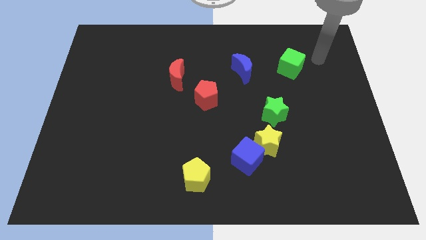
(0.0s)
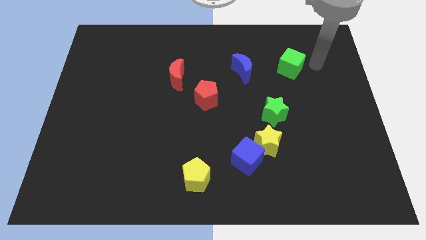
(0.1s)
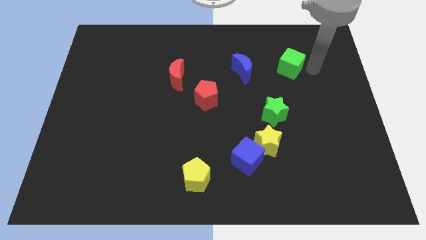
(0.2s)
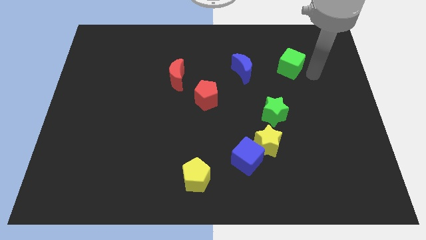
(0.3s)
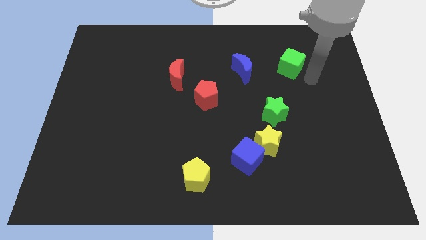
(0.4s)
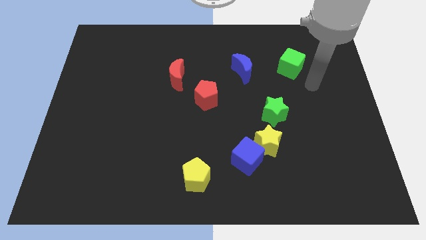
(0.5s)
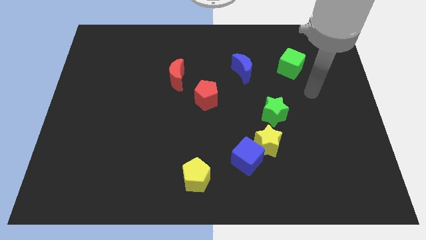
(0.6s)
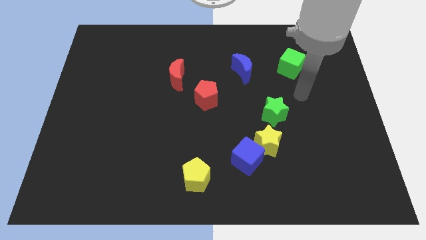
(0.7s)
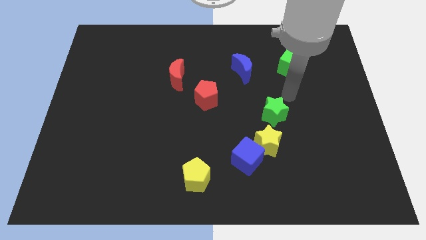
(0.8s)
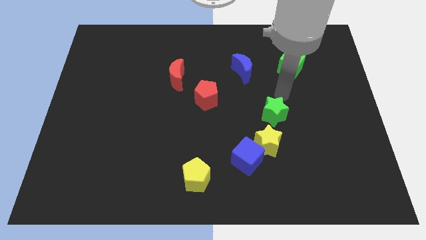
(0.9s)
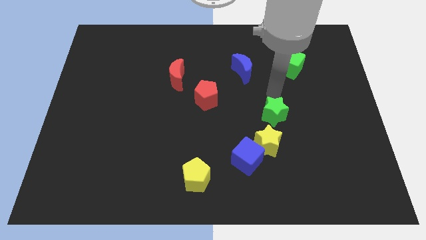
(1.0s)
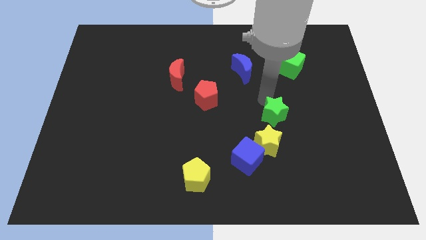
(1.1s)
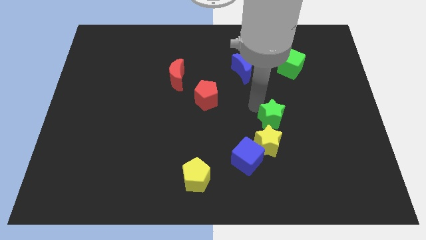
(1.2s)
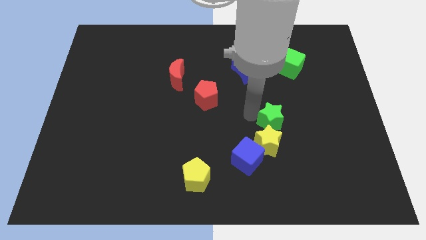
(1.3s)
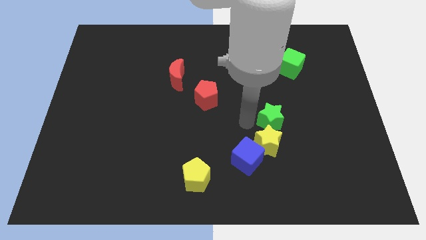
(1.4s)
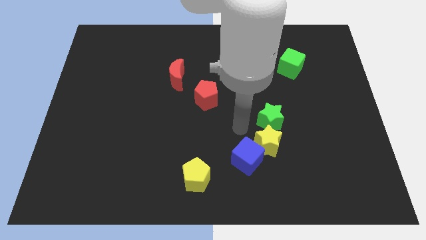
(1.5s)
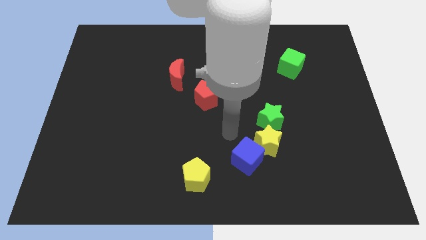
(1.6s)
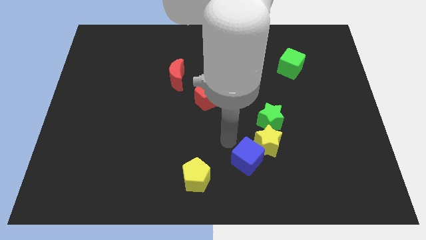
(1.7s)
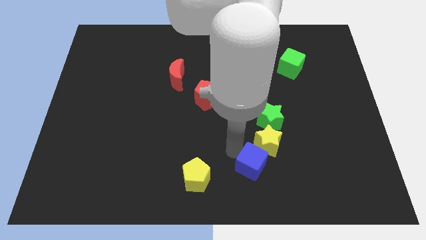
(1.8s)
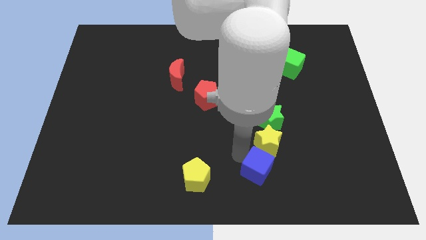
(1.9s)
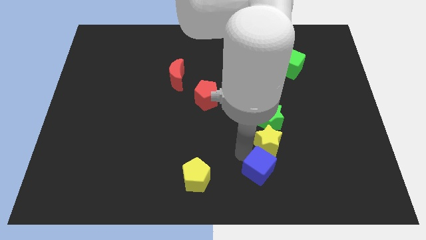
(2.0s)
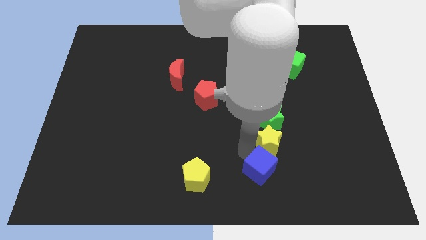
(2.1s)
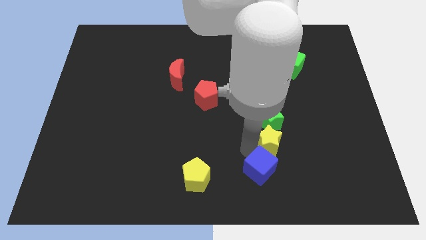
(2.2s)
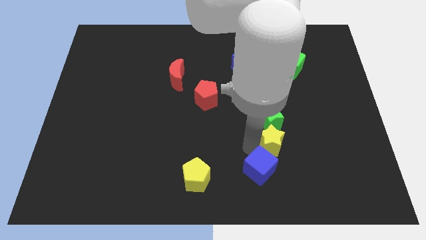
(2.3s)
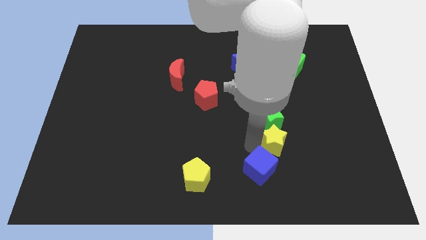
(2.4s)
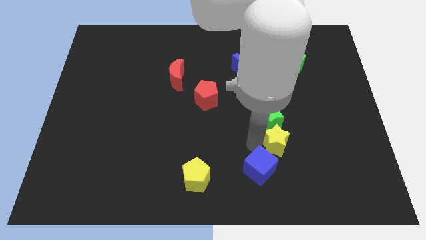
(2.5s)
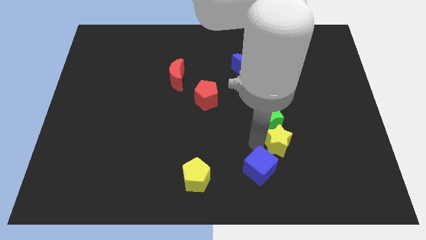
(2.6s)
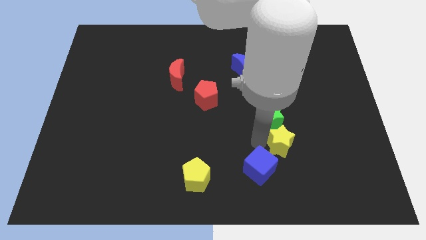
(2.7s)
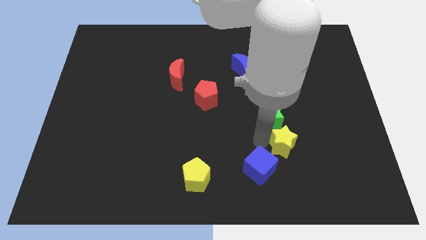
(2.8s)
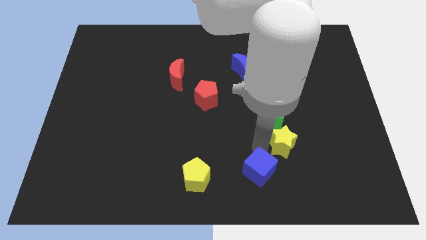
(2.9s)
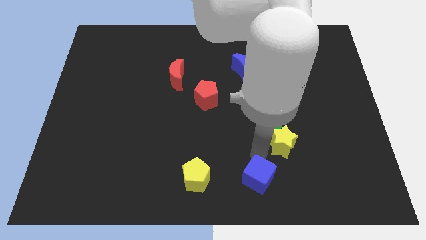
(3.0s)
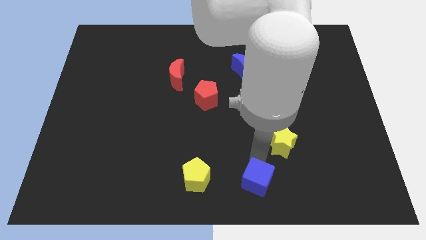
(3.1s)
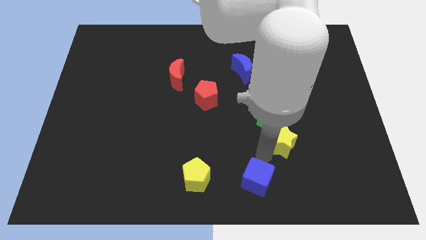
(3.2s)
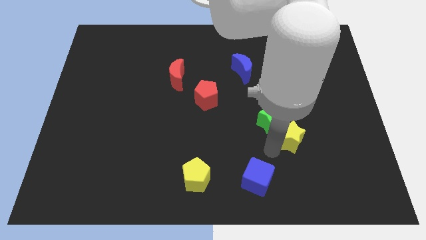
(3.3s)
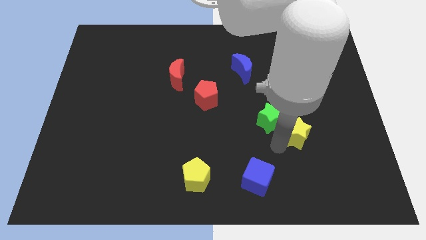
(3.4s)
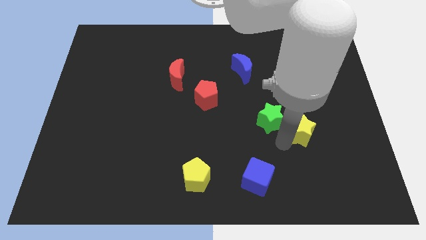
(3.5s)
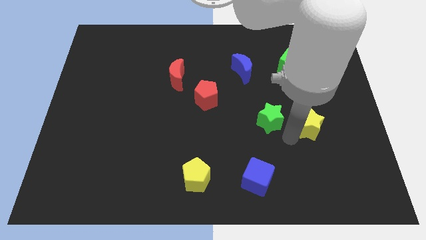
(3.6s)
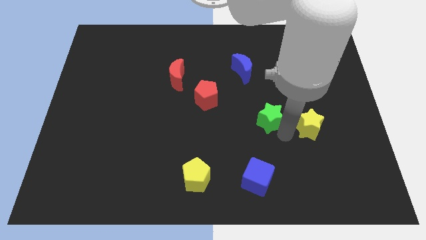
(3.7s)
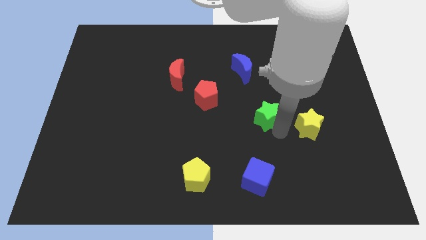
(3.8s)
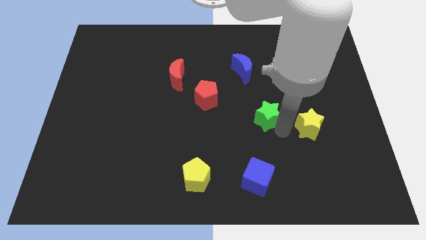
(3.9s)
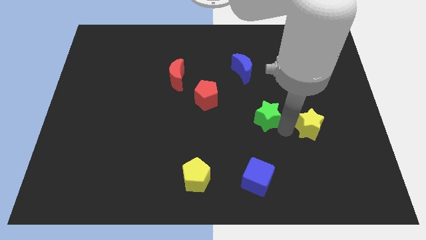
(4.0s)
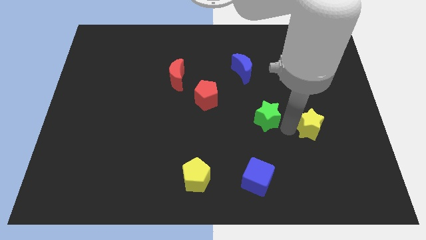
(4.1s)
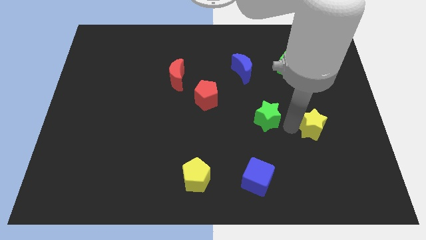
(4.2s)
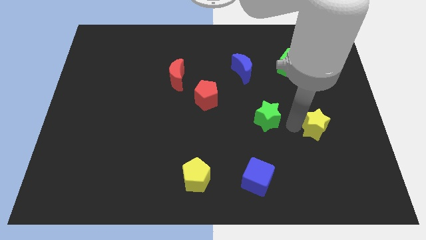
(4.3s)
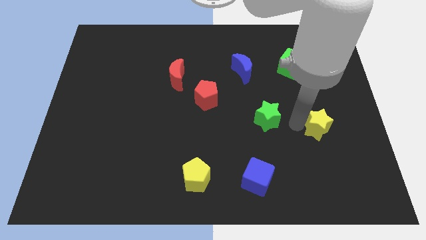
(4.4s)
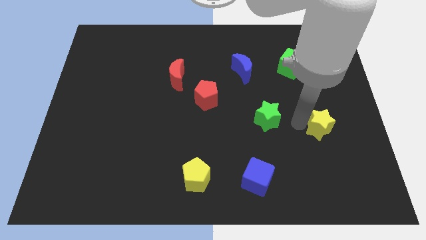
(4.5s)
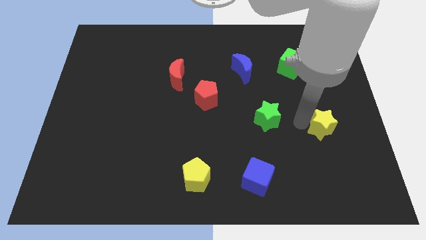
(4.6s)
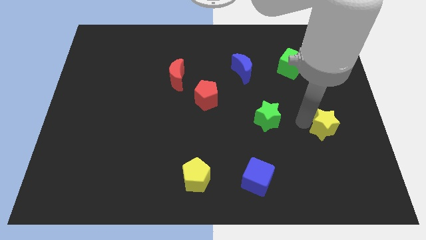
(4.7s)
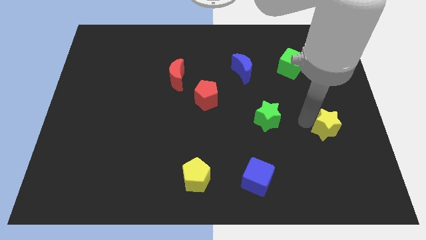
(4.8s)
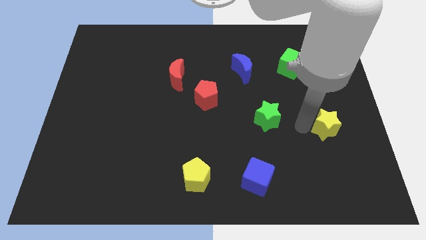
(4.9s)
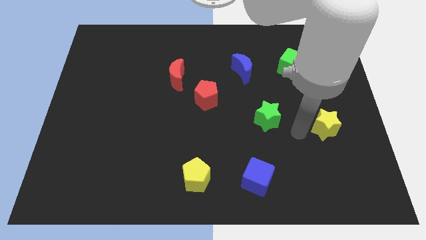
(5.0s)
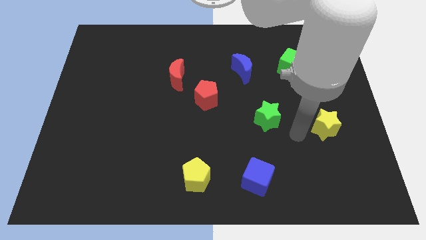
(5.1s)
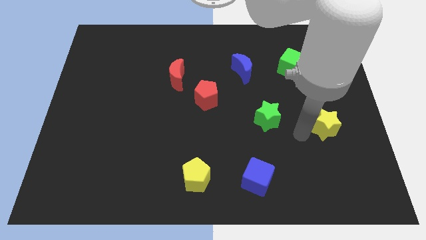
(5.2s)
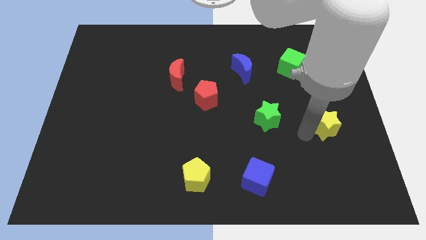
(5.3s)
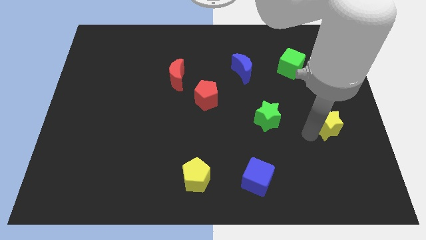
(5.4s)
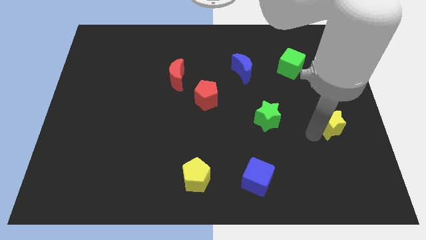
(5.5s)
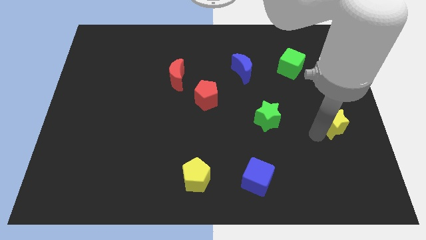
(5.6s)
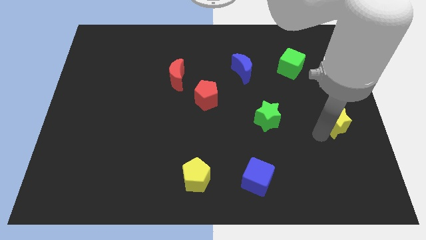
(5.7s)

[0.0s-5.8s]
put the yellow star to the right side

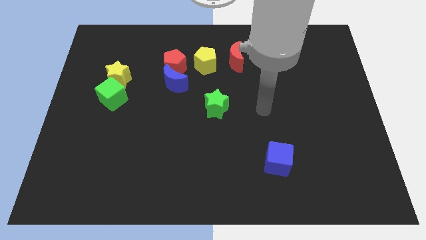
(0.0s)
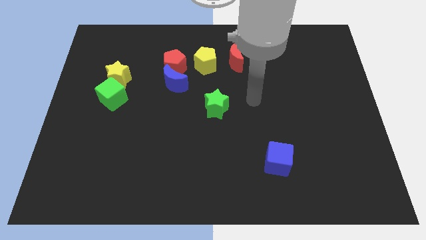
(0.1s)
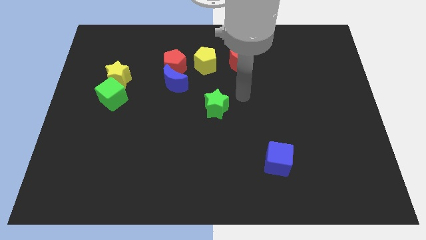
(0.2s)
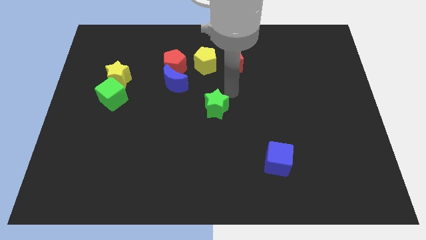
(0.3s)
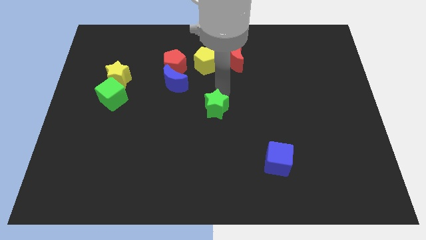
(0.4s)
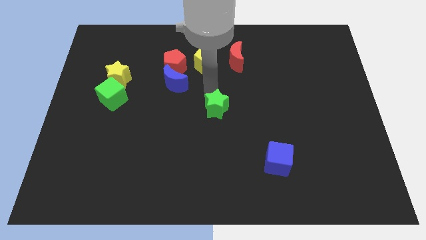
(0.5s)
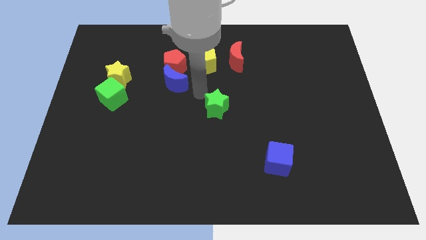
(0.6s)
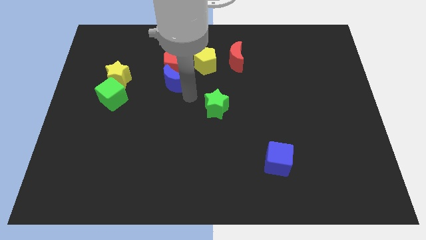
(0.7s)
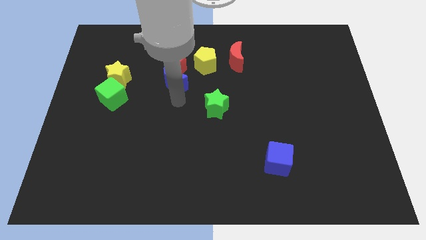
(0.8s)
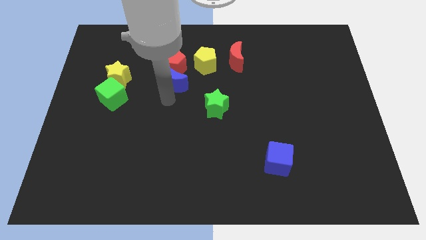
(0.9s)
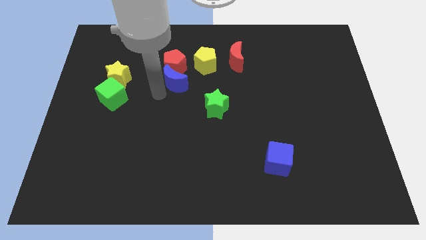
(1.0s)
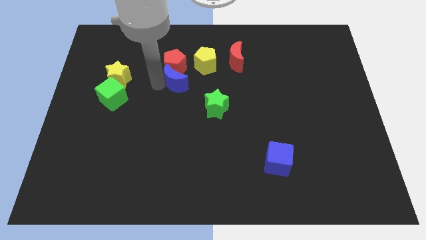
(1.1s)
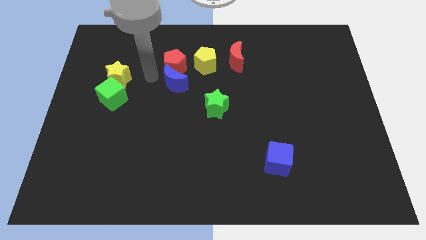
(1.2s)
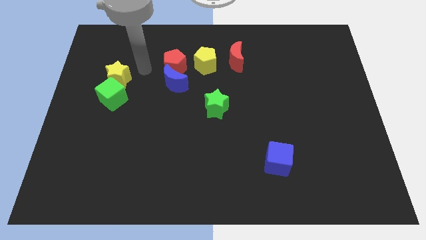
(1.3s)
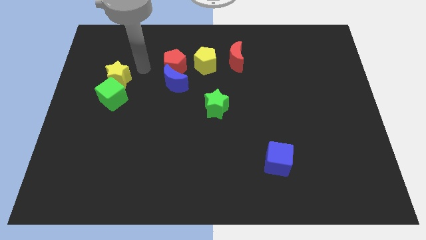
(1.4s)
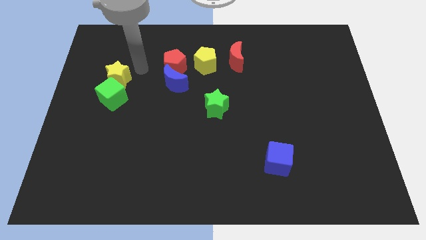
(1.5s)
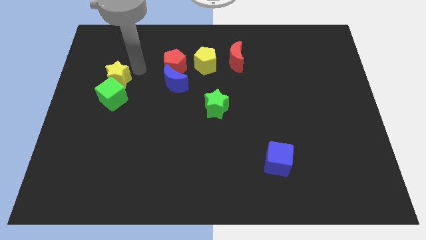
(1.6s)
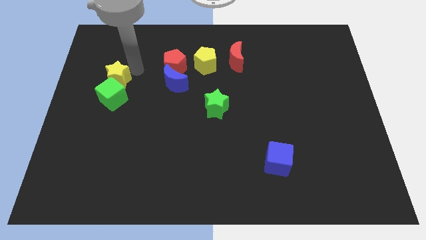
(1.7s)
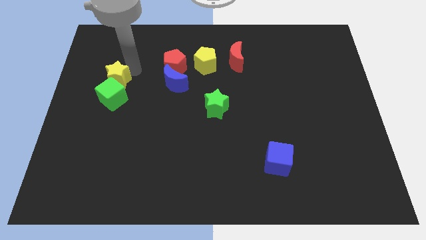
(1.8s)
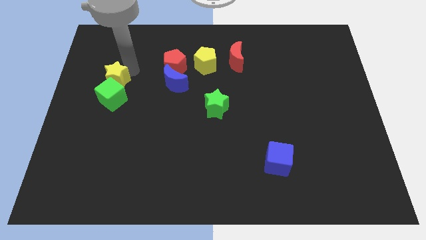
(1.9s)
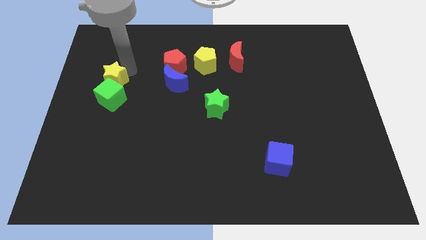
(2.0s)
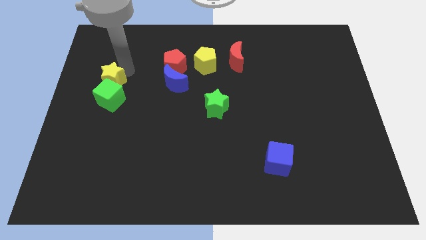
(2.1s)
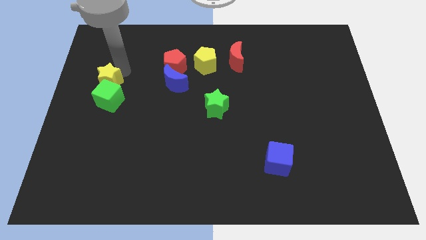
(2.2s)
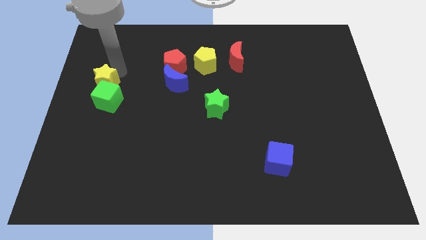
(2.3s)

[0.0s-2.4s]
put the yellow star to the center left
